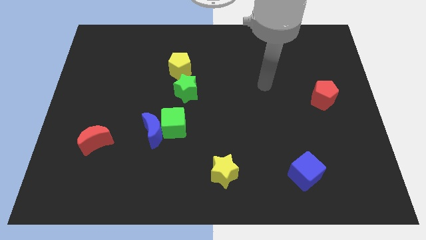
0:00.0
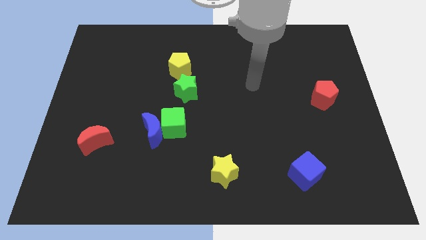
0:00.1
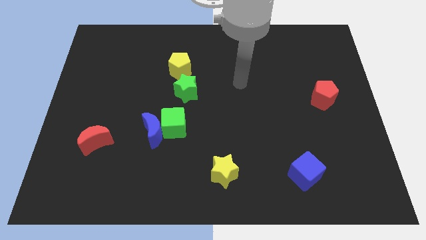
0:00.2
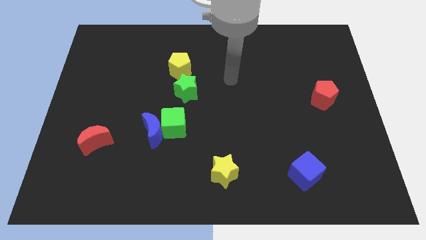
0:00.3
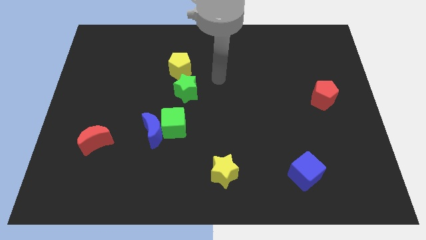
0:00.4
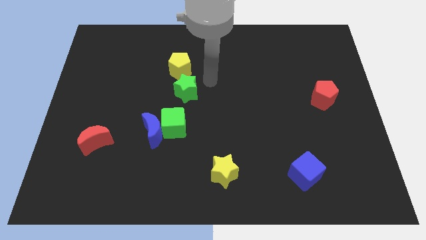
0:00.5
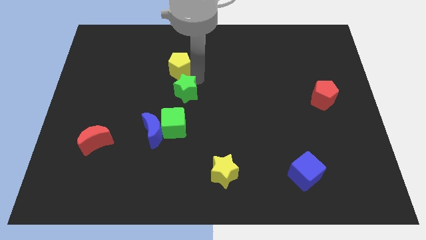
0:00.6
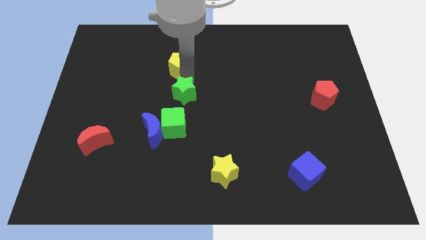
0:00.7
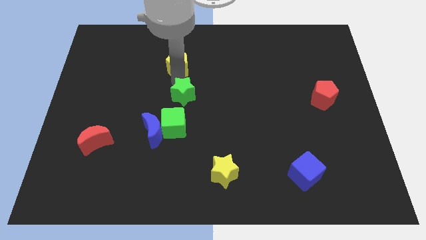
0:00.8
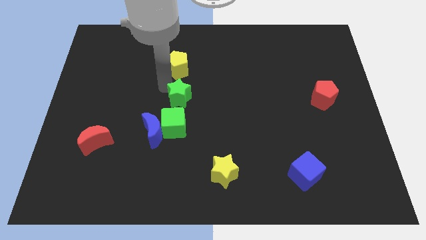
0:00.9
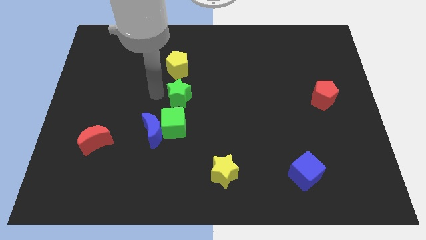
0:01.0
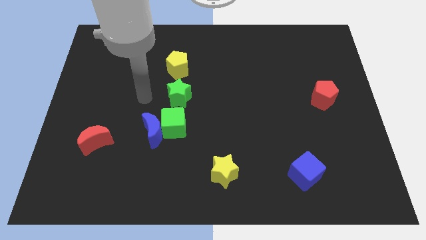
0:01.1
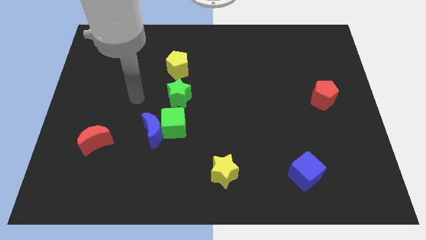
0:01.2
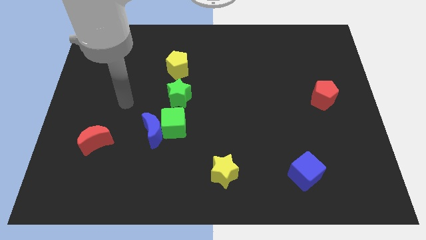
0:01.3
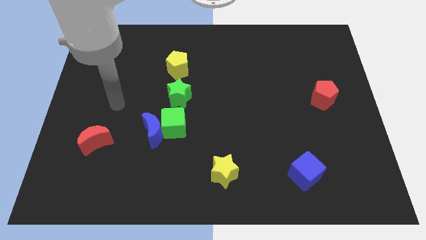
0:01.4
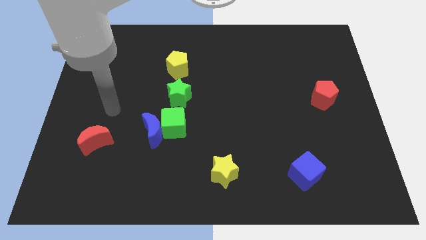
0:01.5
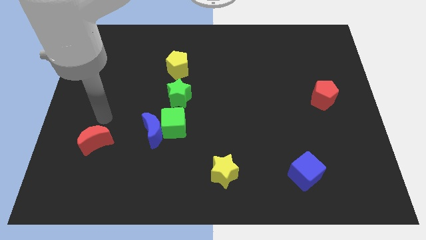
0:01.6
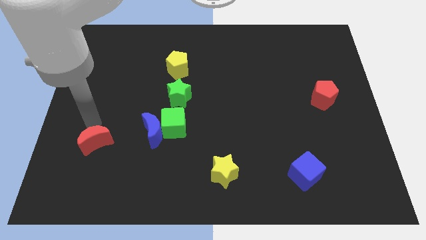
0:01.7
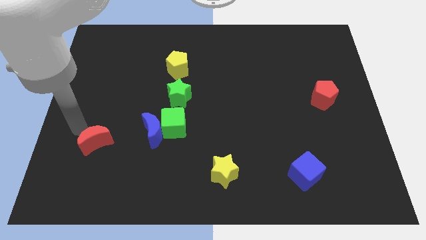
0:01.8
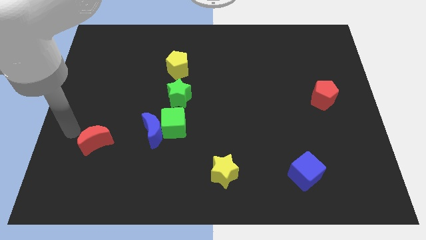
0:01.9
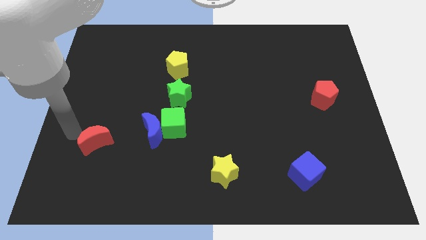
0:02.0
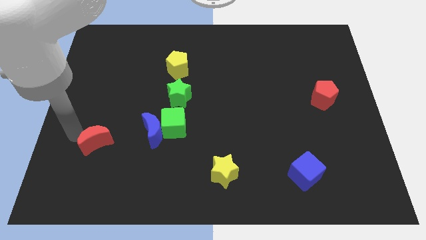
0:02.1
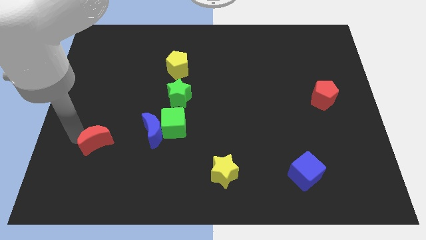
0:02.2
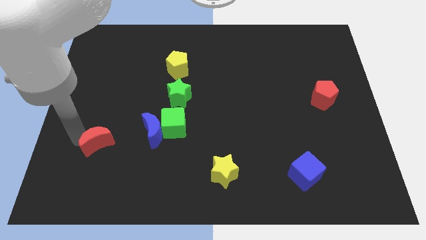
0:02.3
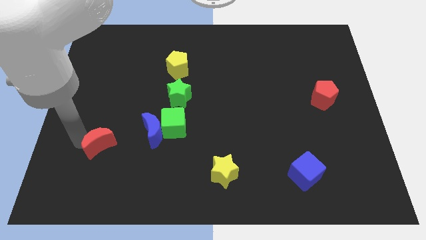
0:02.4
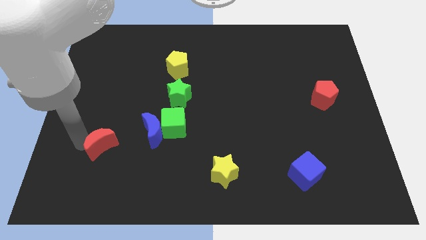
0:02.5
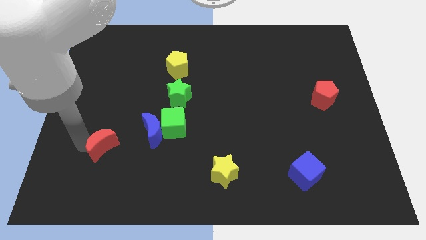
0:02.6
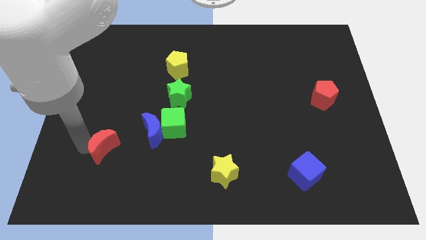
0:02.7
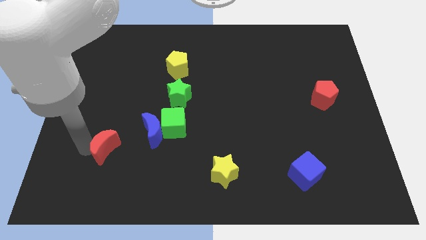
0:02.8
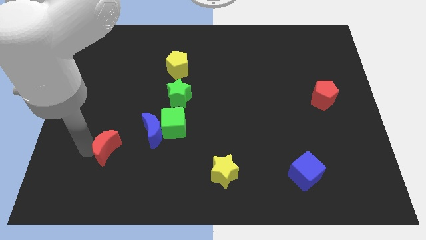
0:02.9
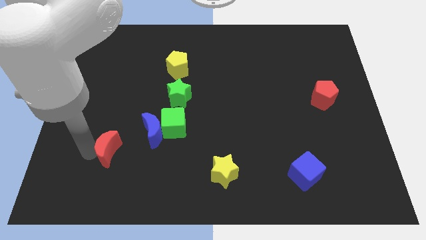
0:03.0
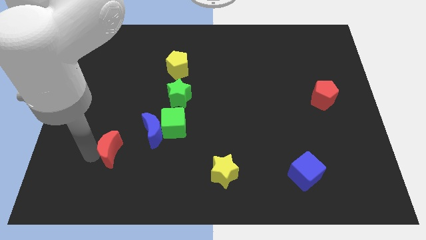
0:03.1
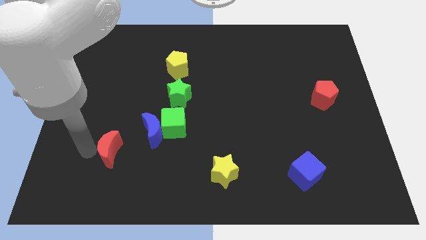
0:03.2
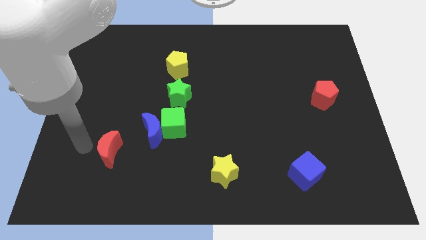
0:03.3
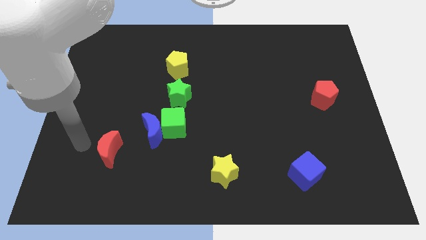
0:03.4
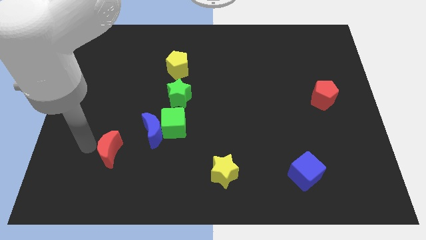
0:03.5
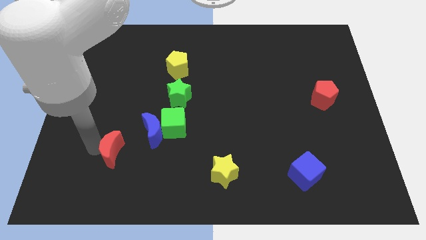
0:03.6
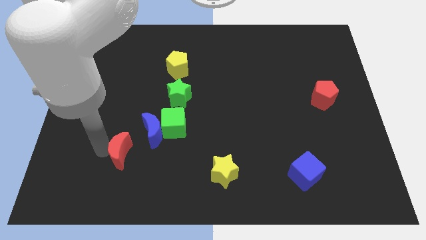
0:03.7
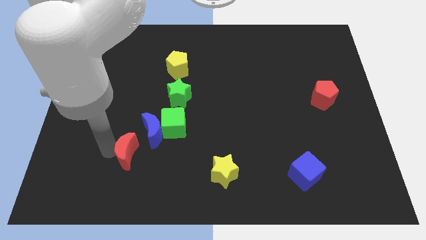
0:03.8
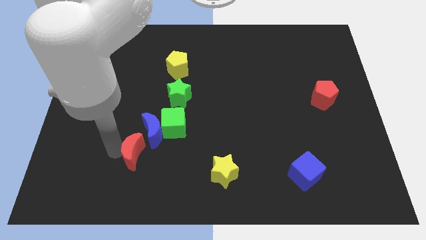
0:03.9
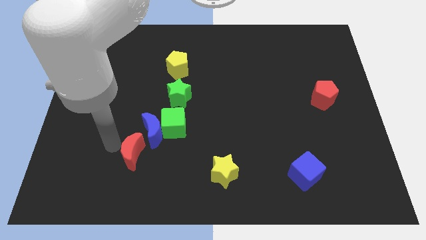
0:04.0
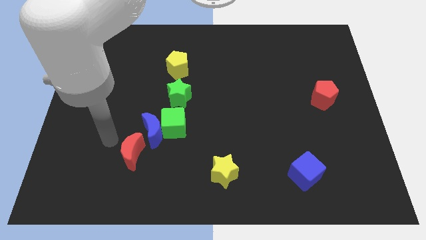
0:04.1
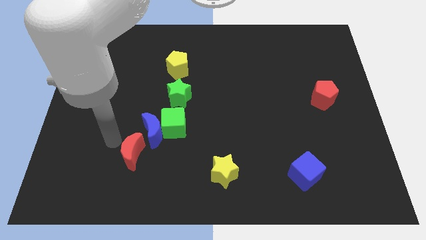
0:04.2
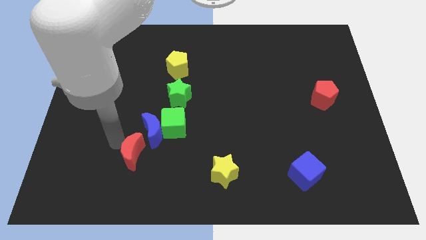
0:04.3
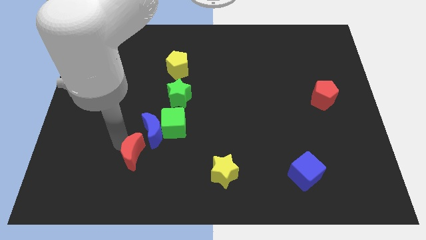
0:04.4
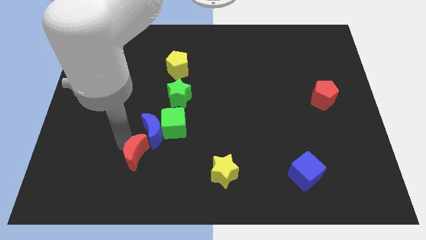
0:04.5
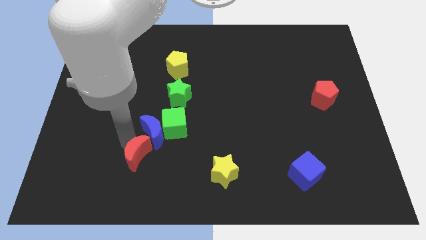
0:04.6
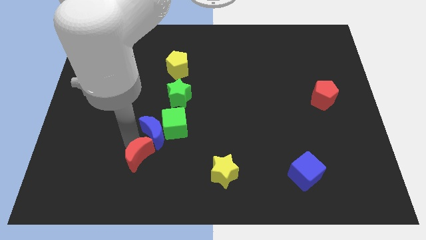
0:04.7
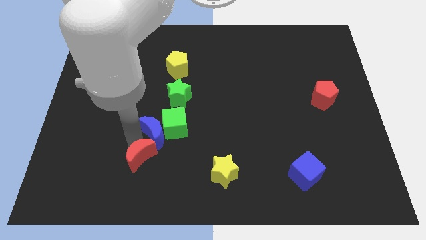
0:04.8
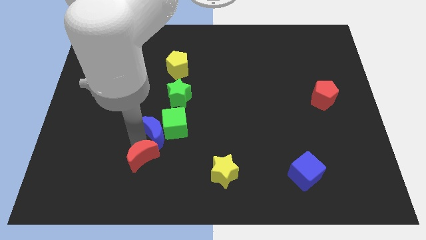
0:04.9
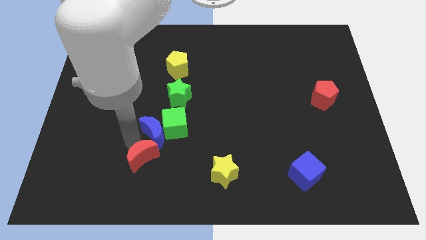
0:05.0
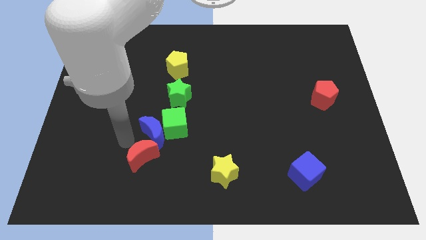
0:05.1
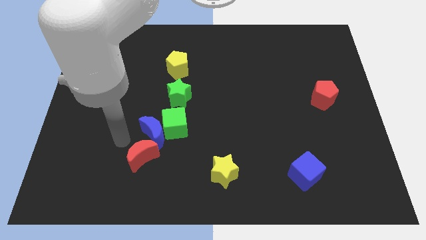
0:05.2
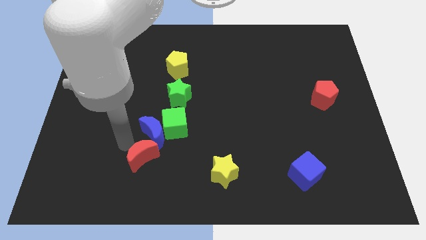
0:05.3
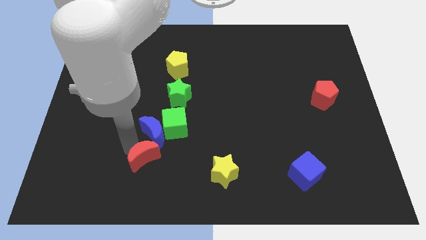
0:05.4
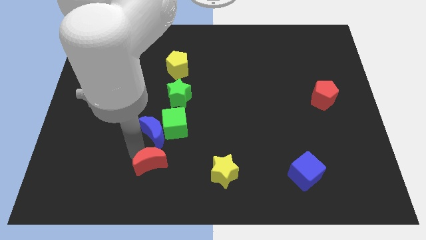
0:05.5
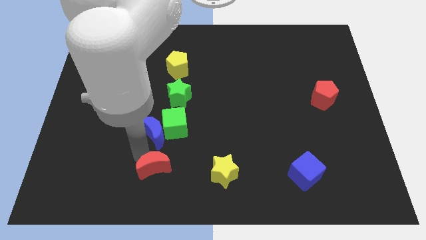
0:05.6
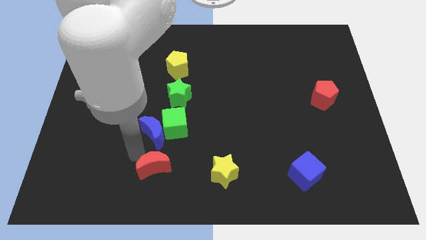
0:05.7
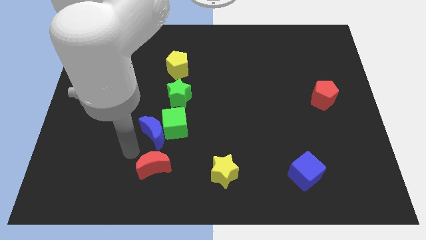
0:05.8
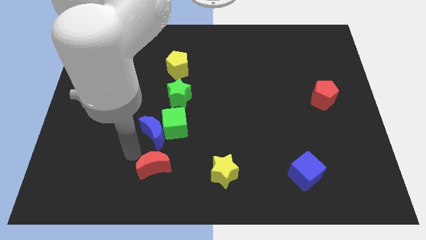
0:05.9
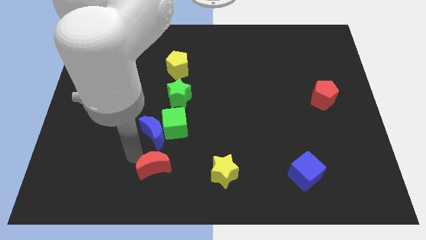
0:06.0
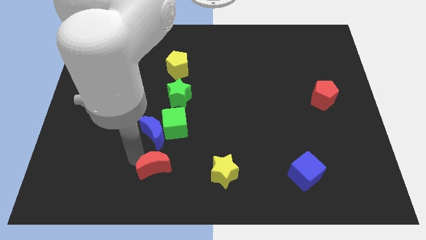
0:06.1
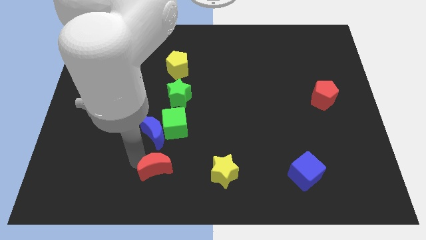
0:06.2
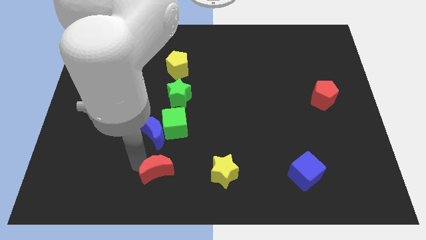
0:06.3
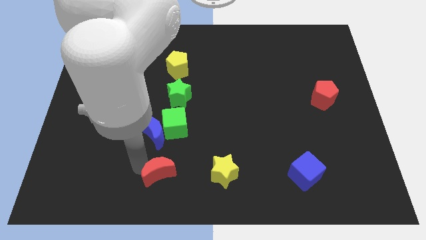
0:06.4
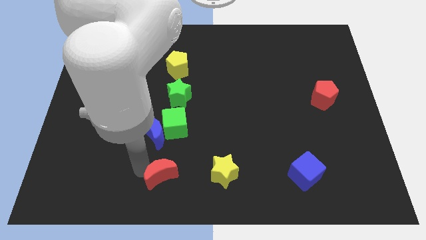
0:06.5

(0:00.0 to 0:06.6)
put the red moon to the bottom side
